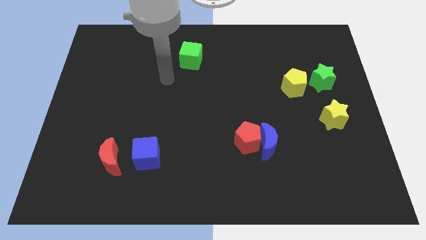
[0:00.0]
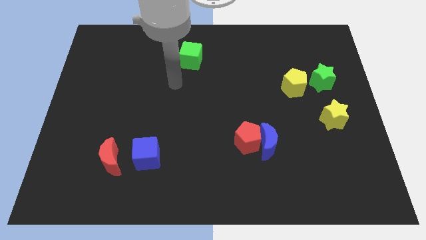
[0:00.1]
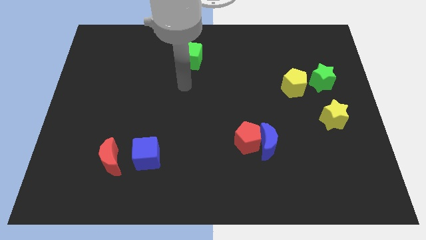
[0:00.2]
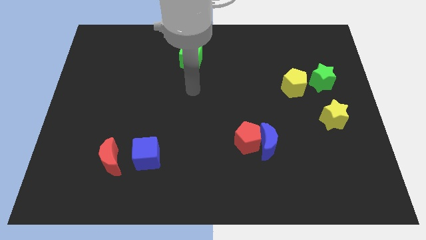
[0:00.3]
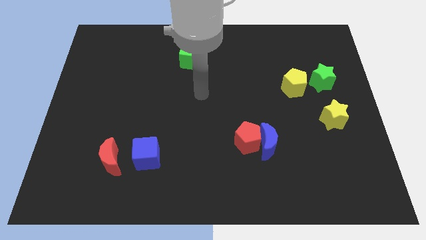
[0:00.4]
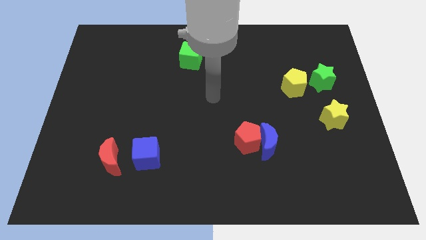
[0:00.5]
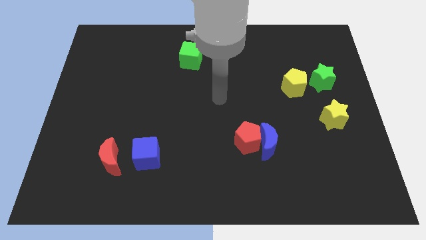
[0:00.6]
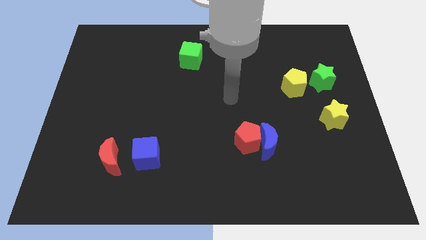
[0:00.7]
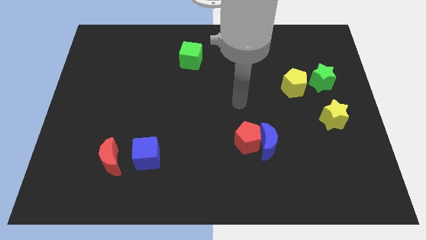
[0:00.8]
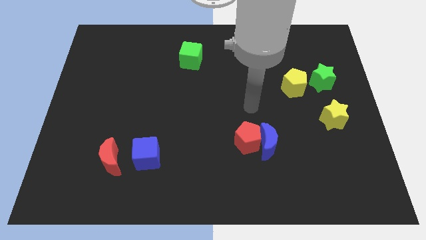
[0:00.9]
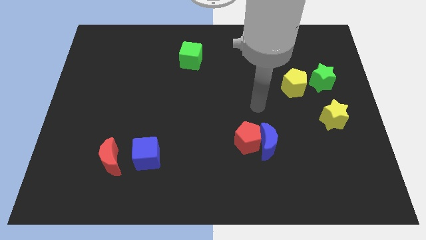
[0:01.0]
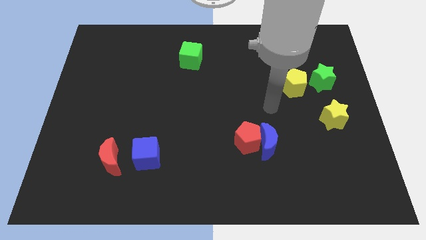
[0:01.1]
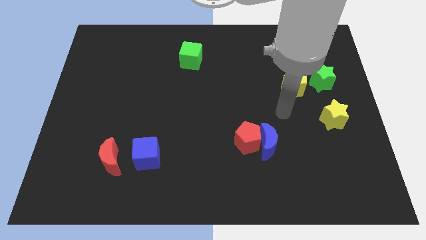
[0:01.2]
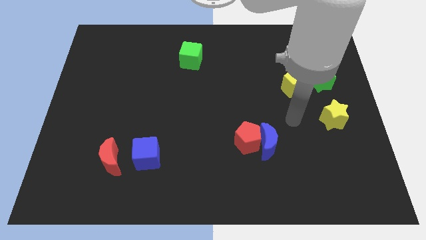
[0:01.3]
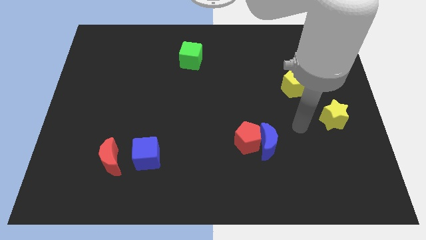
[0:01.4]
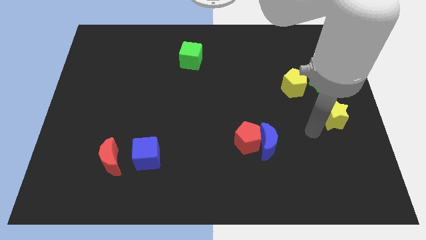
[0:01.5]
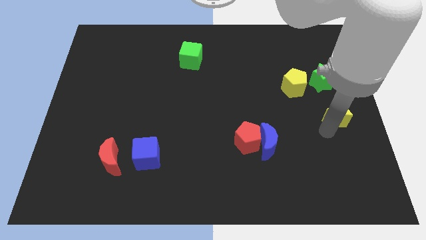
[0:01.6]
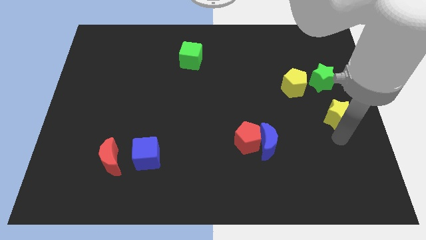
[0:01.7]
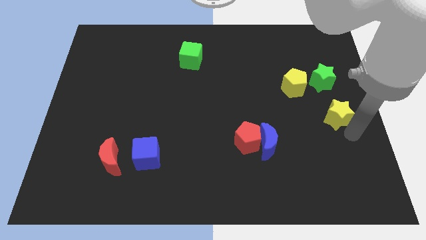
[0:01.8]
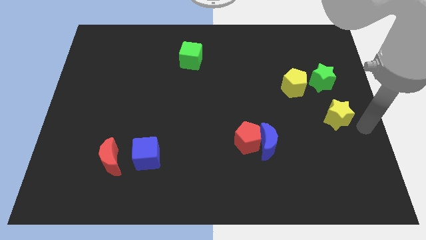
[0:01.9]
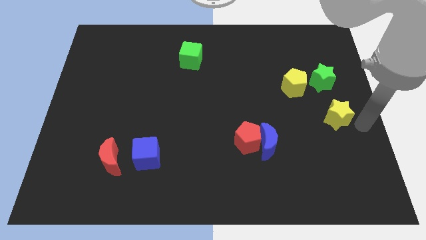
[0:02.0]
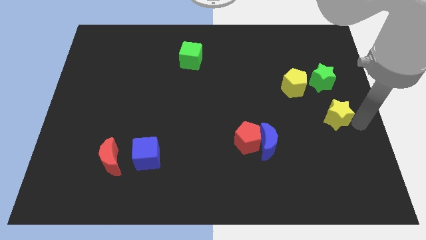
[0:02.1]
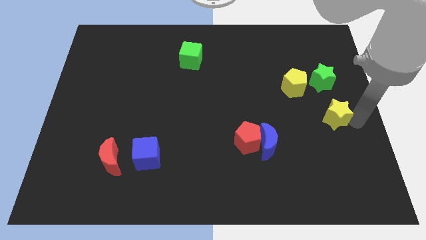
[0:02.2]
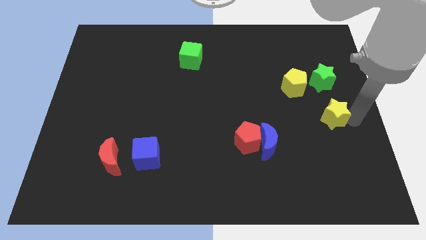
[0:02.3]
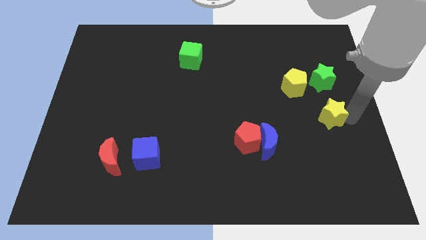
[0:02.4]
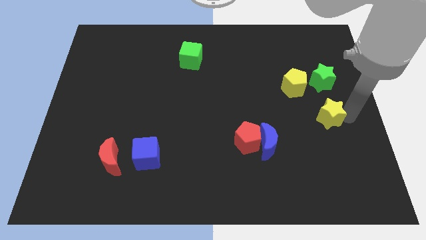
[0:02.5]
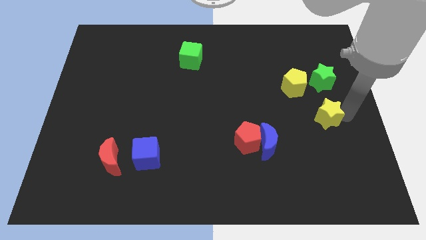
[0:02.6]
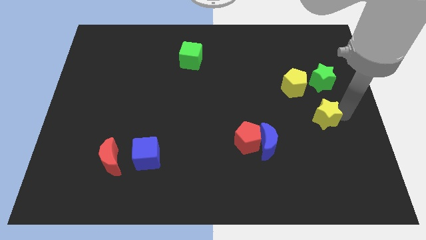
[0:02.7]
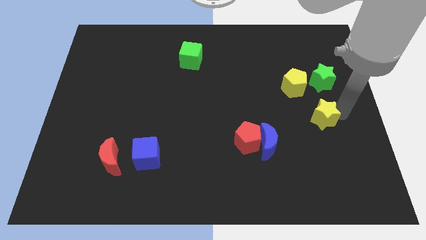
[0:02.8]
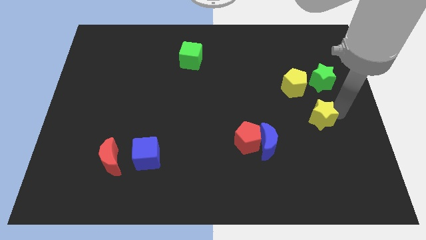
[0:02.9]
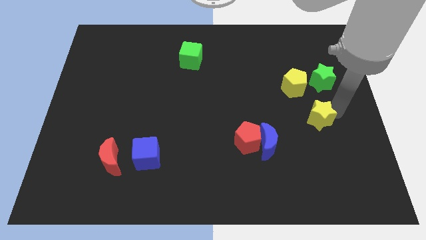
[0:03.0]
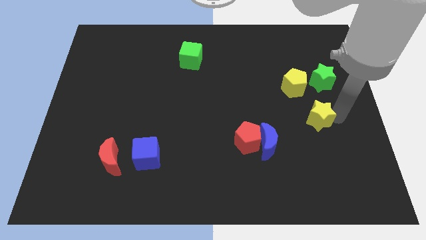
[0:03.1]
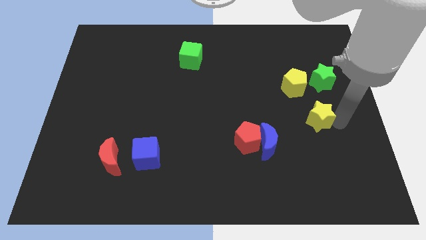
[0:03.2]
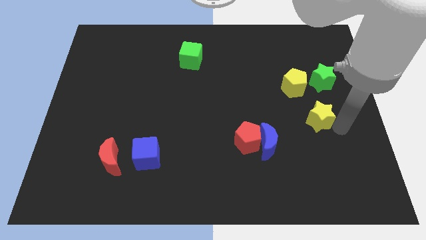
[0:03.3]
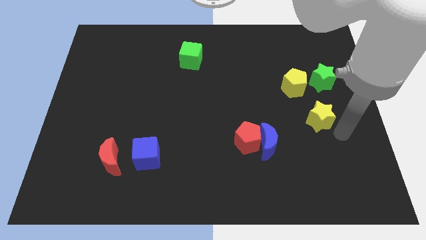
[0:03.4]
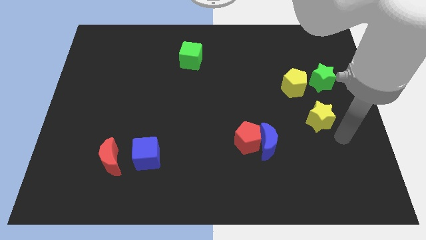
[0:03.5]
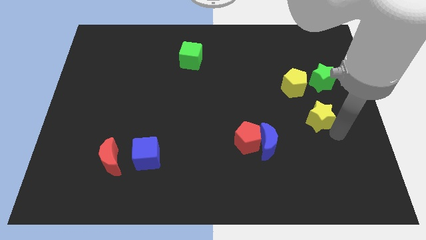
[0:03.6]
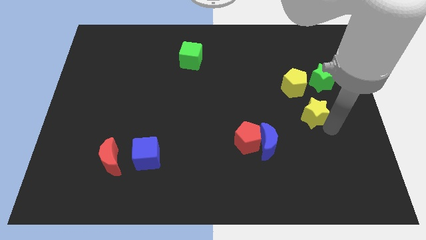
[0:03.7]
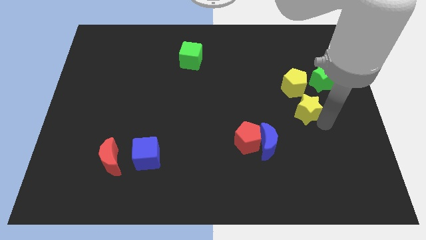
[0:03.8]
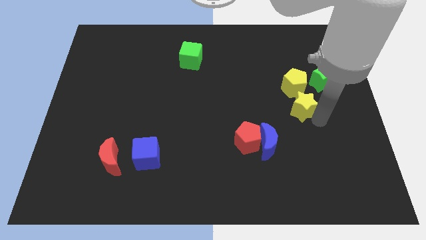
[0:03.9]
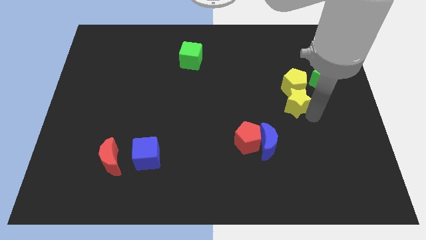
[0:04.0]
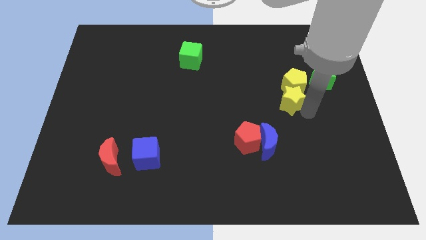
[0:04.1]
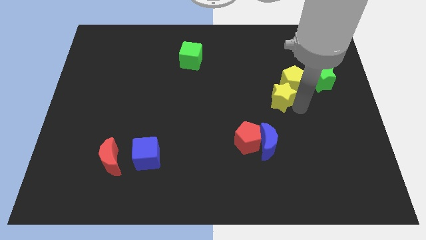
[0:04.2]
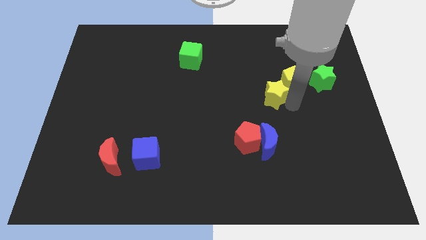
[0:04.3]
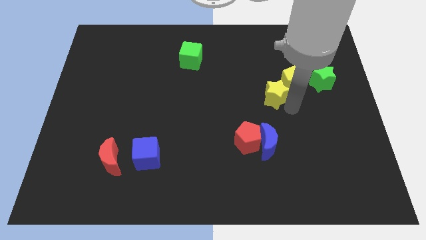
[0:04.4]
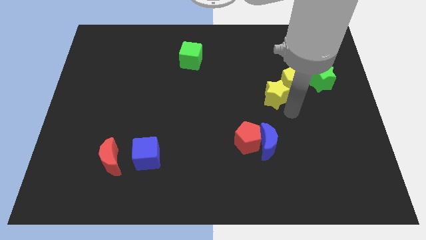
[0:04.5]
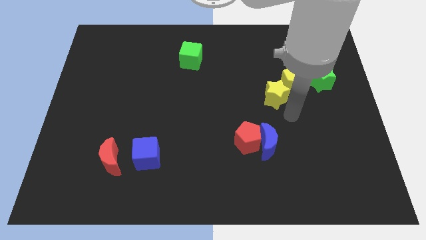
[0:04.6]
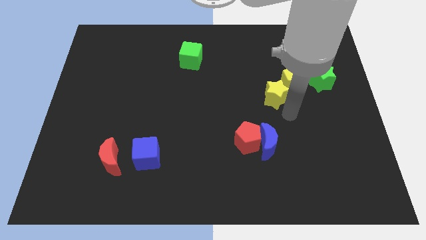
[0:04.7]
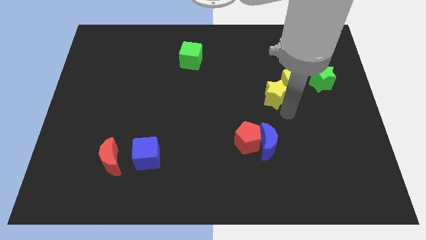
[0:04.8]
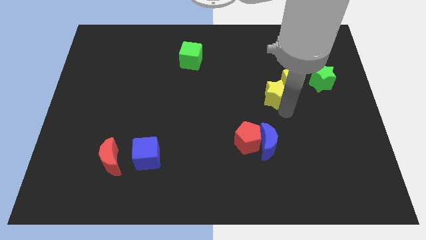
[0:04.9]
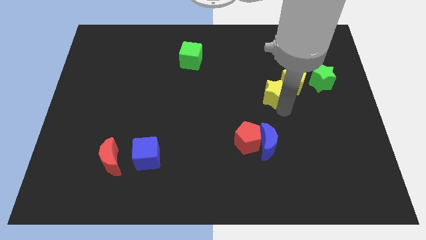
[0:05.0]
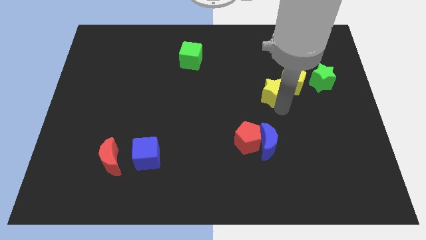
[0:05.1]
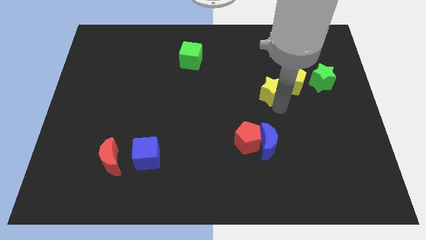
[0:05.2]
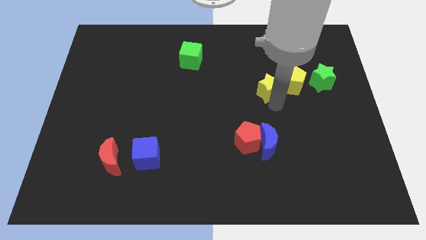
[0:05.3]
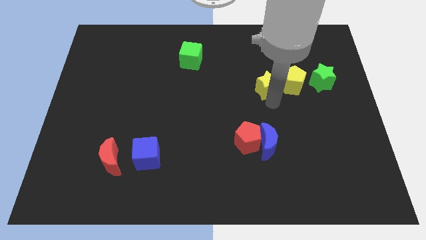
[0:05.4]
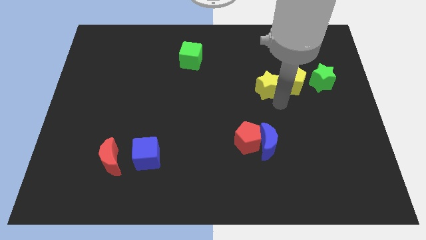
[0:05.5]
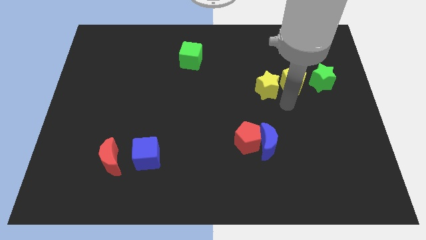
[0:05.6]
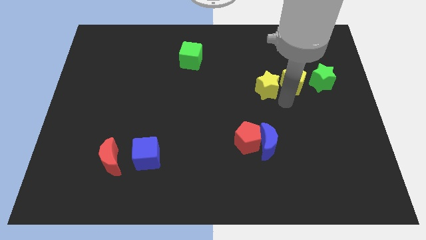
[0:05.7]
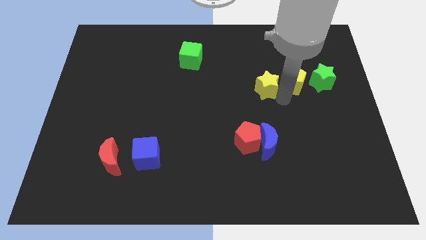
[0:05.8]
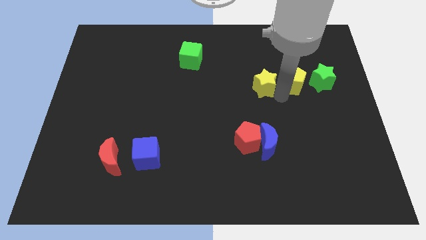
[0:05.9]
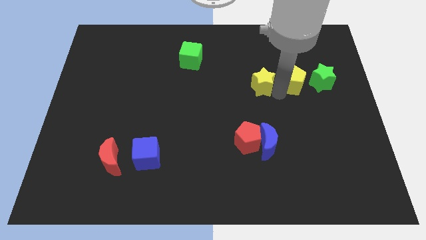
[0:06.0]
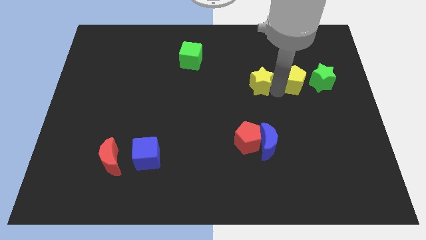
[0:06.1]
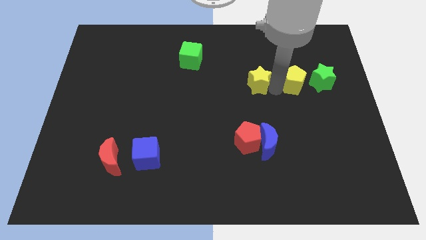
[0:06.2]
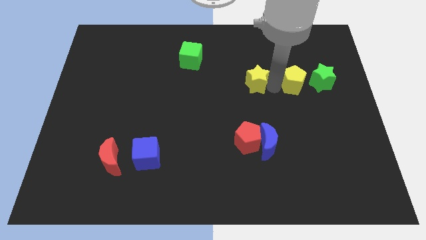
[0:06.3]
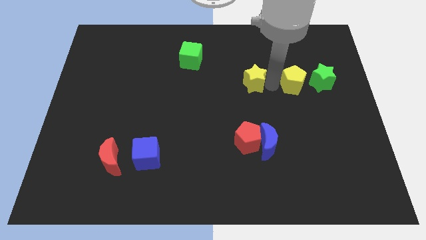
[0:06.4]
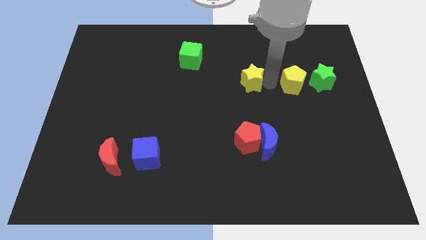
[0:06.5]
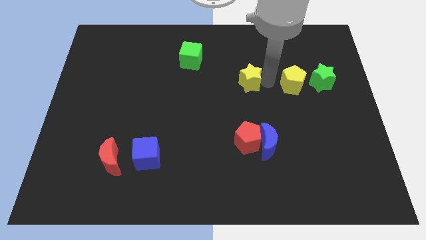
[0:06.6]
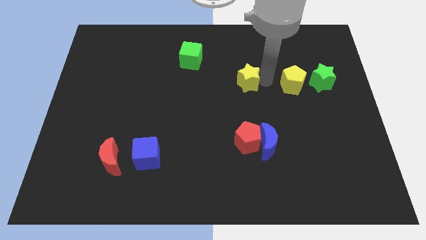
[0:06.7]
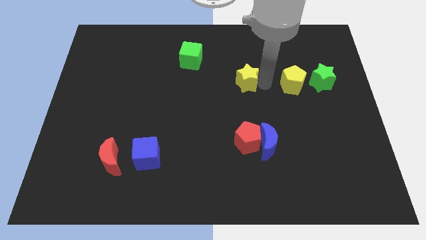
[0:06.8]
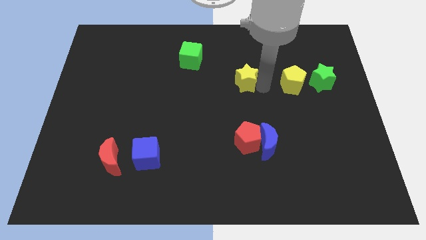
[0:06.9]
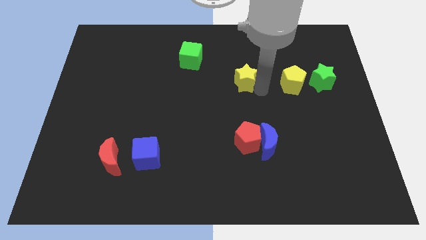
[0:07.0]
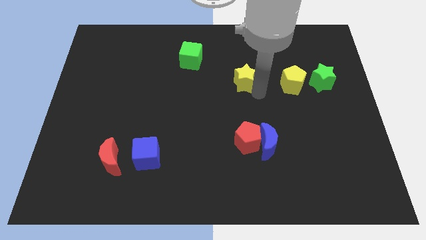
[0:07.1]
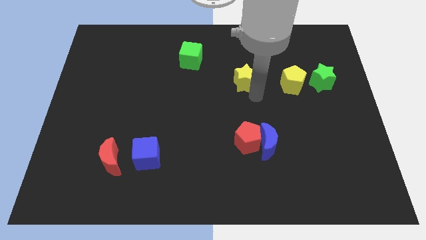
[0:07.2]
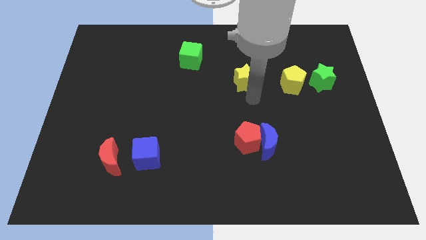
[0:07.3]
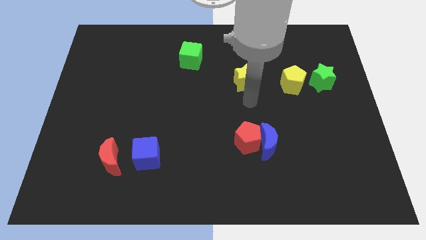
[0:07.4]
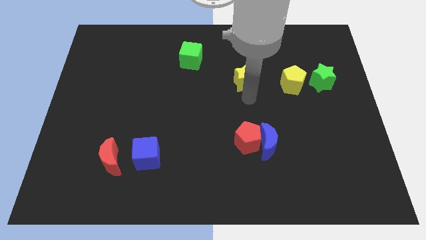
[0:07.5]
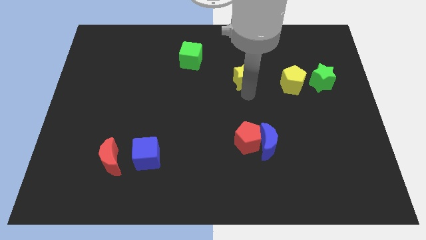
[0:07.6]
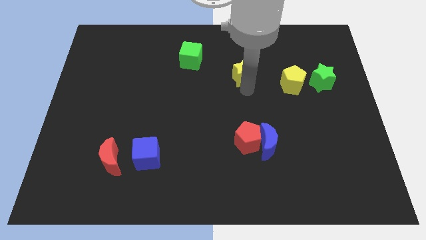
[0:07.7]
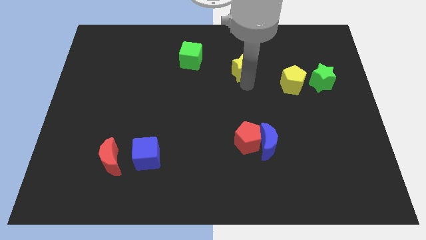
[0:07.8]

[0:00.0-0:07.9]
slide the yellow star to the right of the green cube
